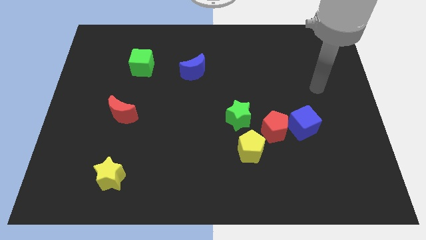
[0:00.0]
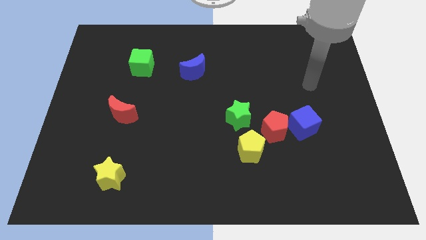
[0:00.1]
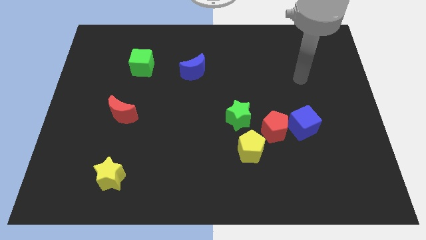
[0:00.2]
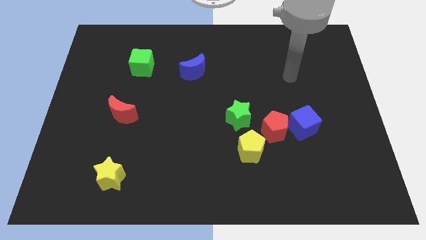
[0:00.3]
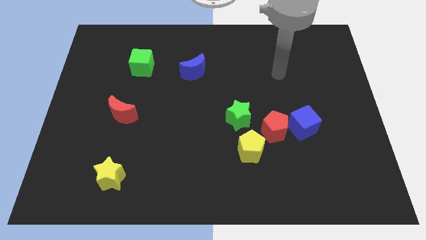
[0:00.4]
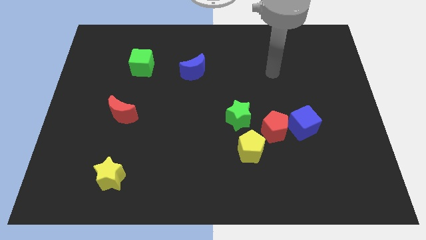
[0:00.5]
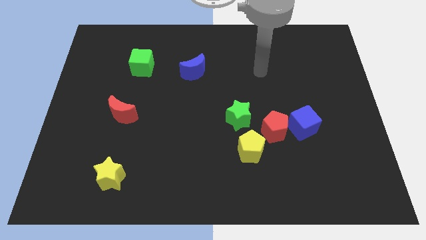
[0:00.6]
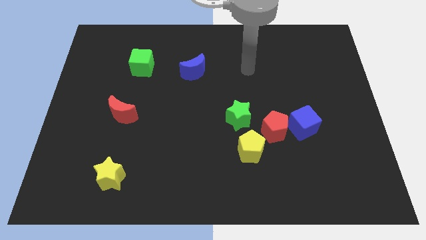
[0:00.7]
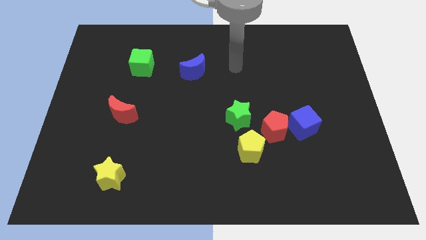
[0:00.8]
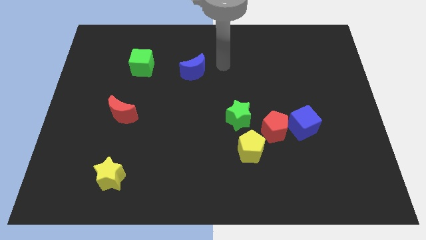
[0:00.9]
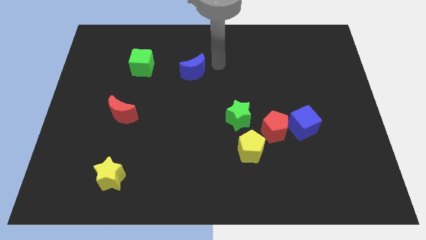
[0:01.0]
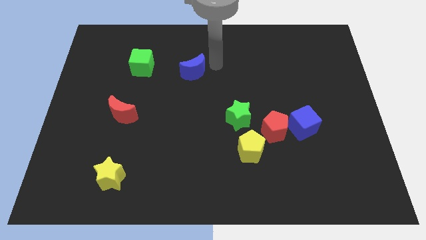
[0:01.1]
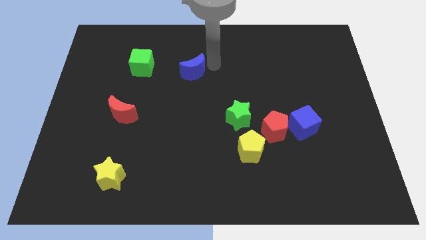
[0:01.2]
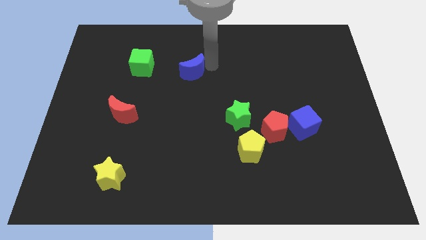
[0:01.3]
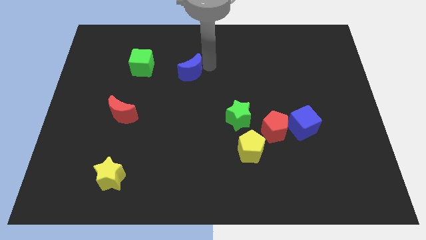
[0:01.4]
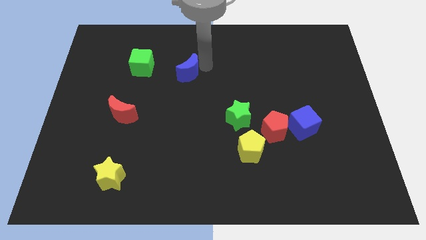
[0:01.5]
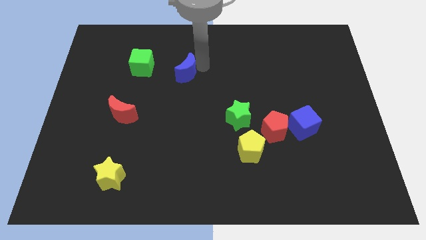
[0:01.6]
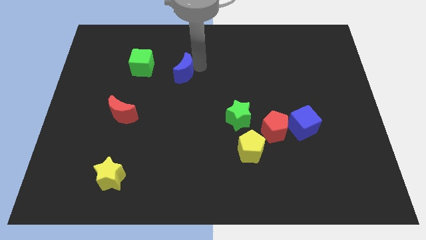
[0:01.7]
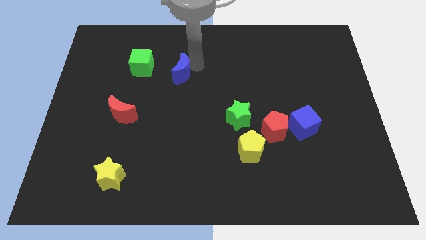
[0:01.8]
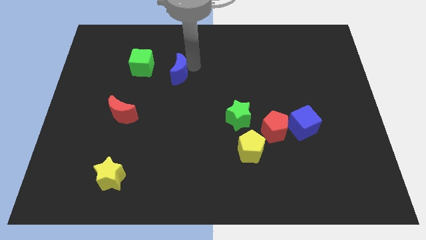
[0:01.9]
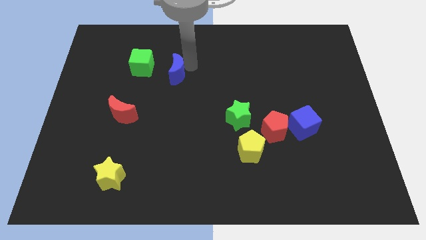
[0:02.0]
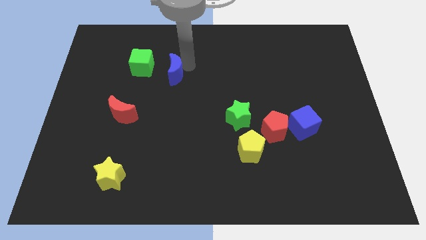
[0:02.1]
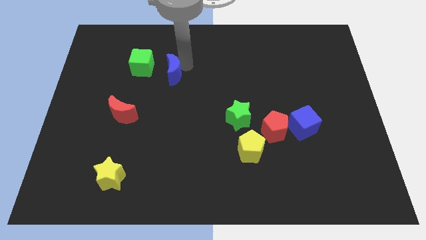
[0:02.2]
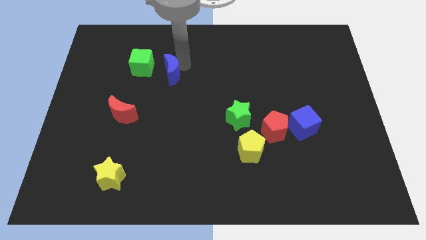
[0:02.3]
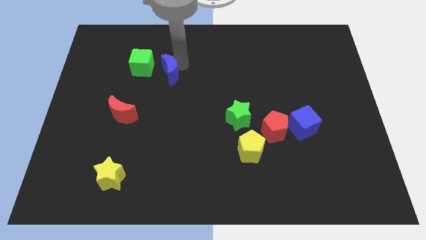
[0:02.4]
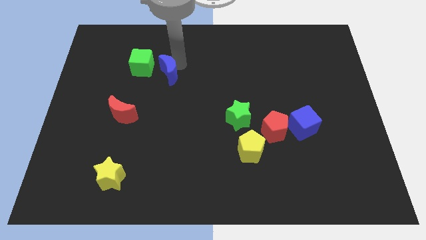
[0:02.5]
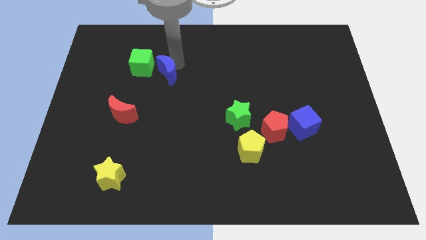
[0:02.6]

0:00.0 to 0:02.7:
slightly slide the blue moon to the left

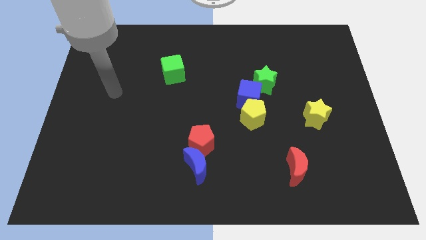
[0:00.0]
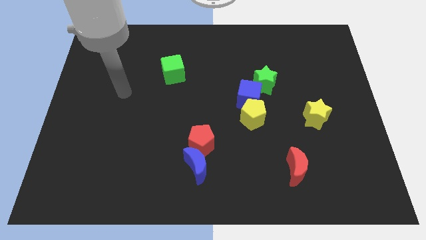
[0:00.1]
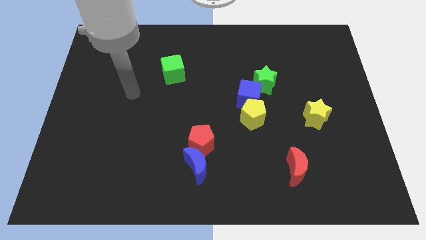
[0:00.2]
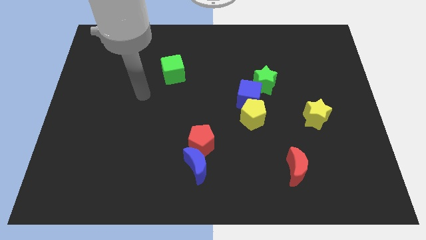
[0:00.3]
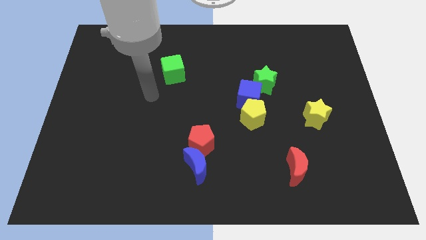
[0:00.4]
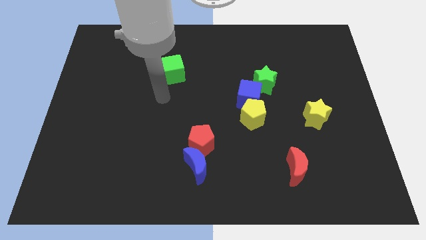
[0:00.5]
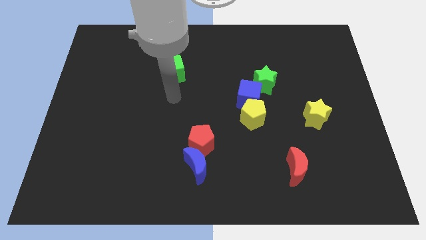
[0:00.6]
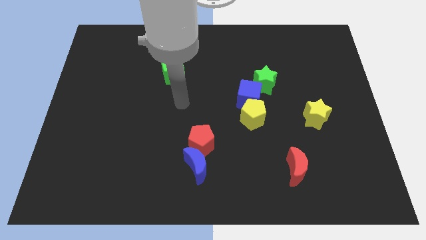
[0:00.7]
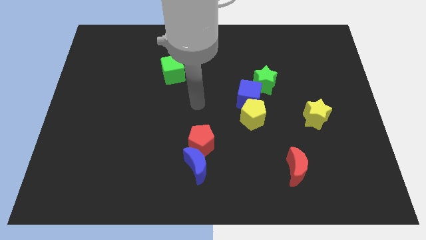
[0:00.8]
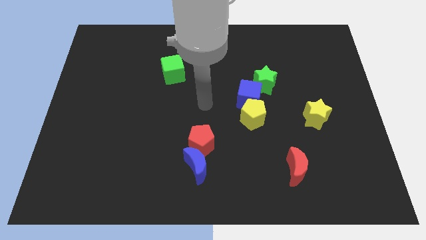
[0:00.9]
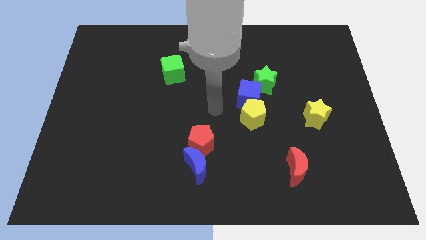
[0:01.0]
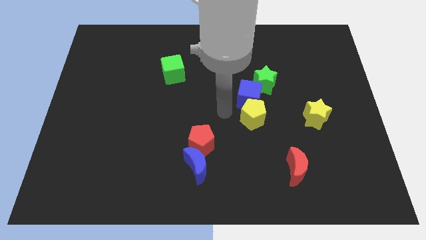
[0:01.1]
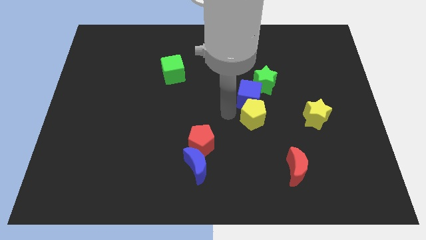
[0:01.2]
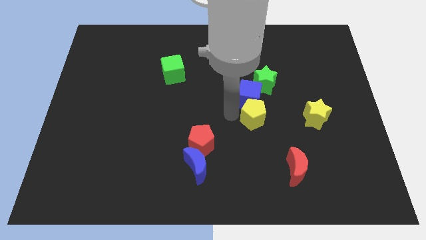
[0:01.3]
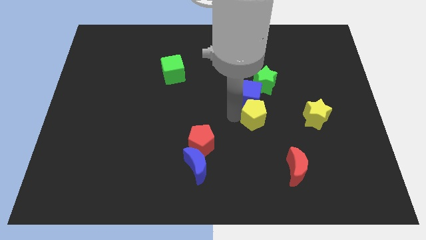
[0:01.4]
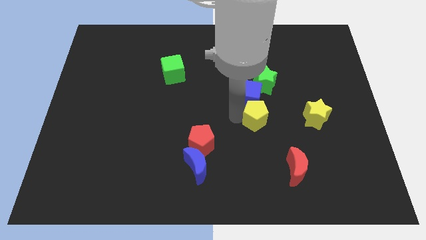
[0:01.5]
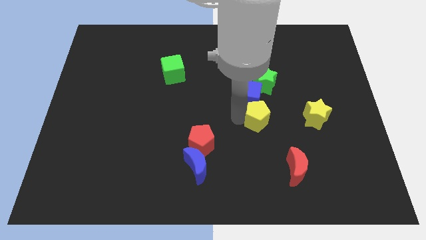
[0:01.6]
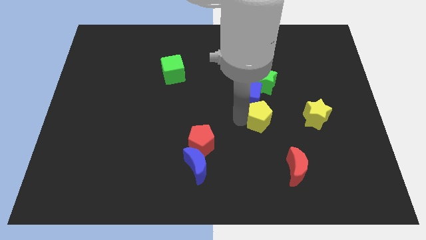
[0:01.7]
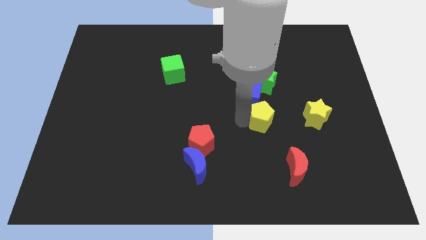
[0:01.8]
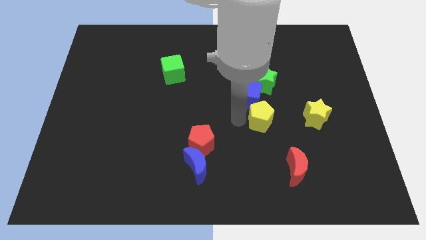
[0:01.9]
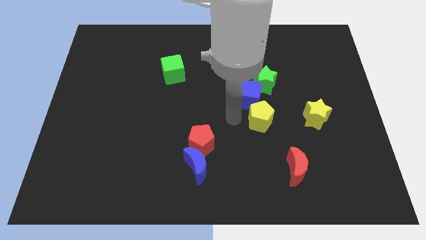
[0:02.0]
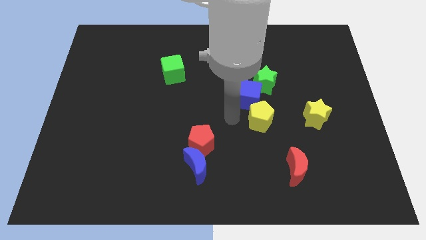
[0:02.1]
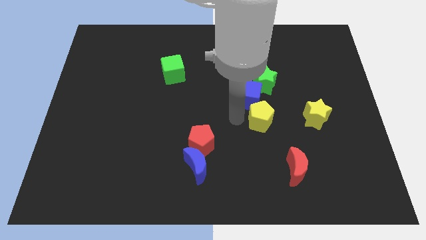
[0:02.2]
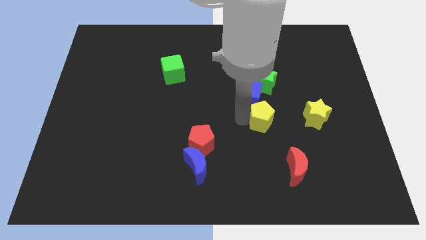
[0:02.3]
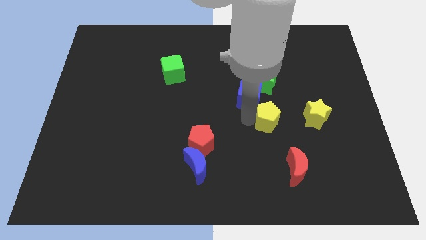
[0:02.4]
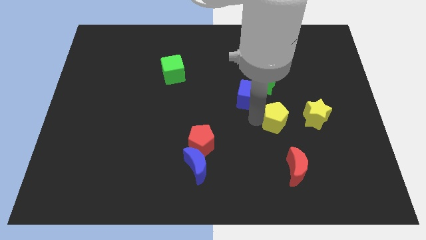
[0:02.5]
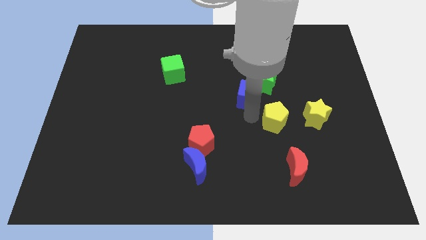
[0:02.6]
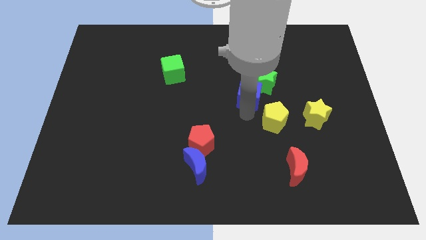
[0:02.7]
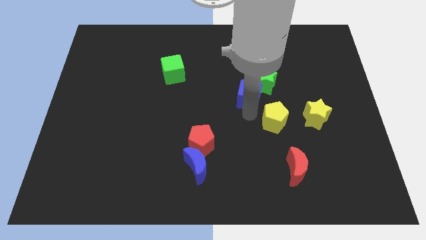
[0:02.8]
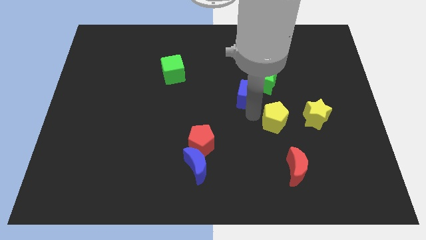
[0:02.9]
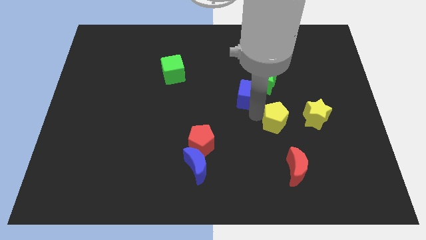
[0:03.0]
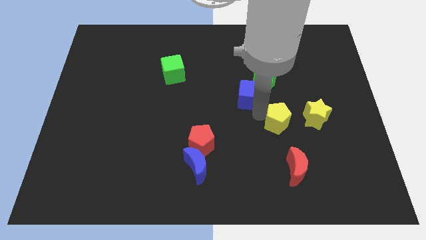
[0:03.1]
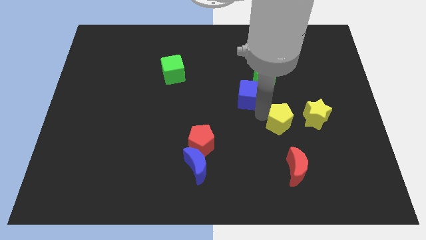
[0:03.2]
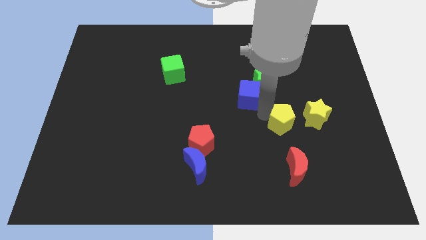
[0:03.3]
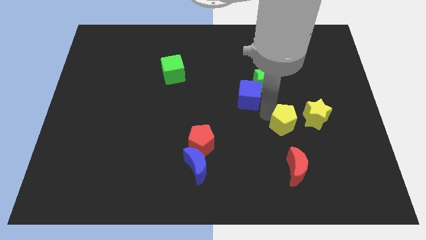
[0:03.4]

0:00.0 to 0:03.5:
slightly move the yellow pentagon to the right

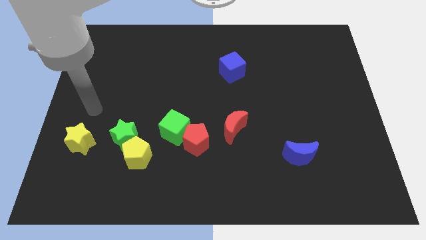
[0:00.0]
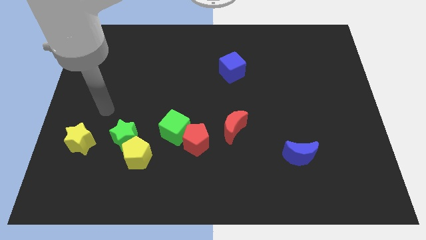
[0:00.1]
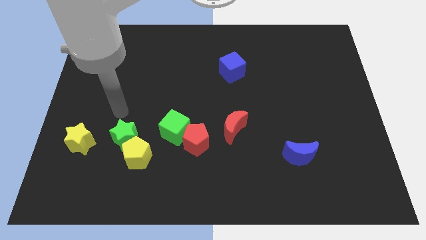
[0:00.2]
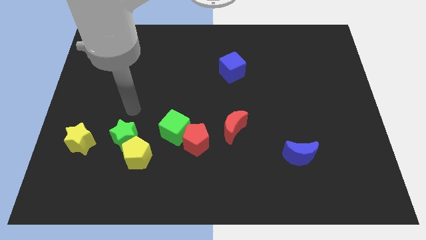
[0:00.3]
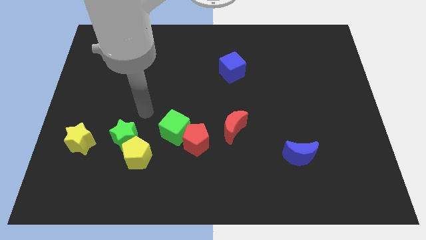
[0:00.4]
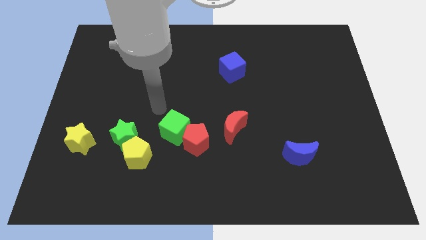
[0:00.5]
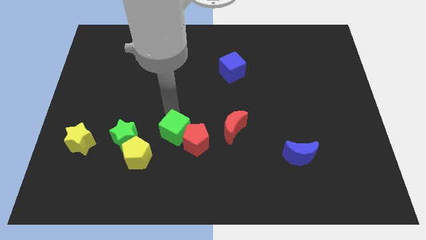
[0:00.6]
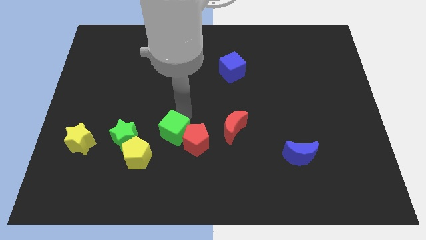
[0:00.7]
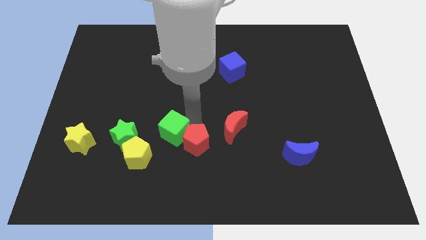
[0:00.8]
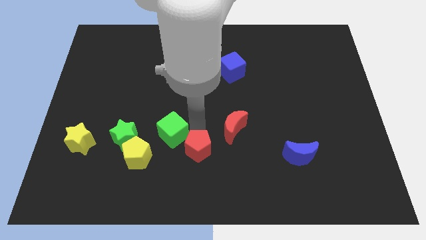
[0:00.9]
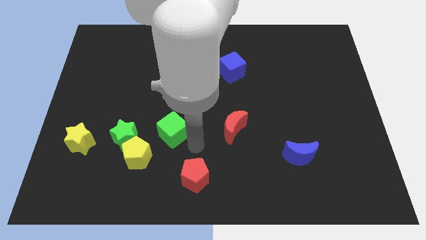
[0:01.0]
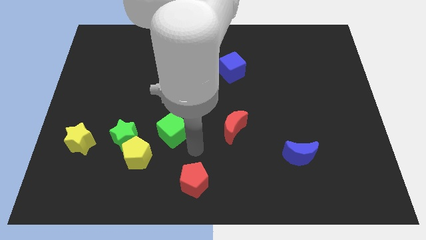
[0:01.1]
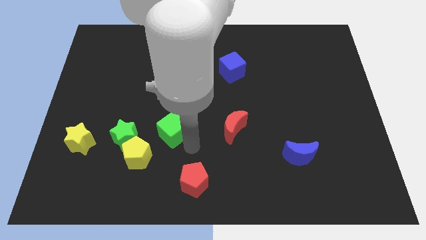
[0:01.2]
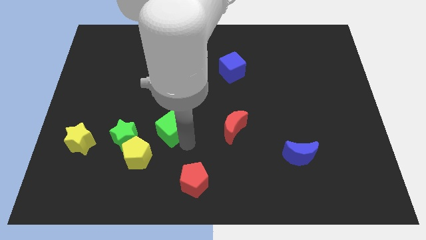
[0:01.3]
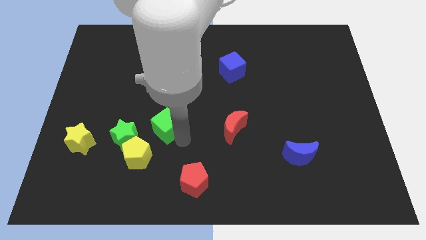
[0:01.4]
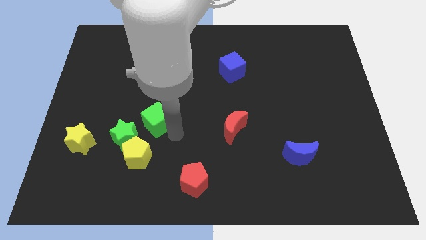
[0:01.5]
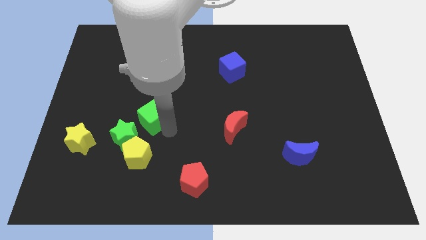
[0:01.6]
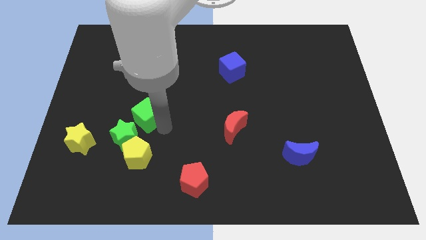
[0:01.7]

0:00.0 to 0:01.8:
push the green cube up and left diagonally a little
